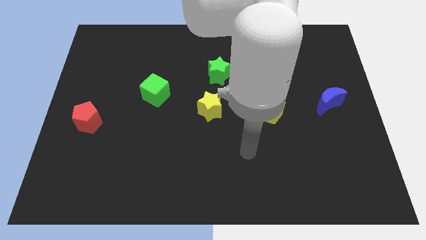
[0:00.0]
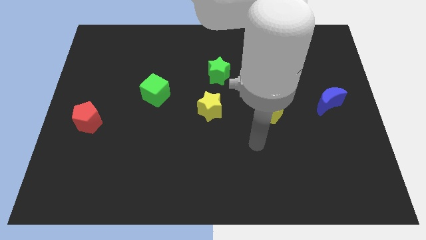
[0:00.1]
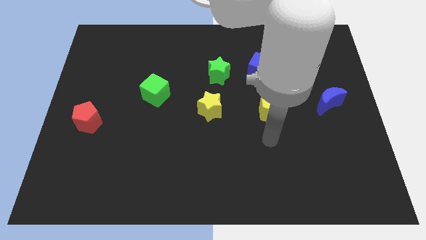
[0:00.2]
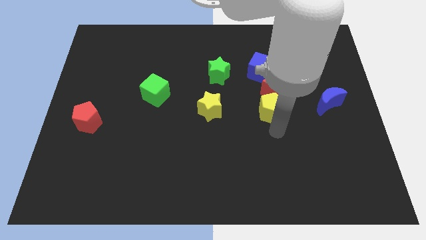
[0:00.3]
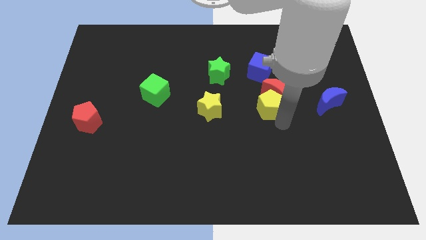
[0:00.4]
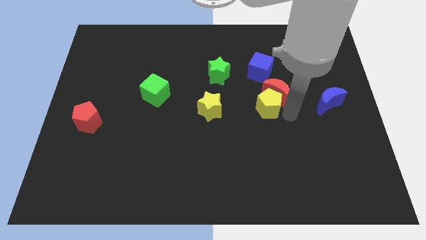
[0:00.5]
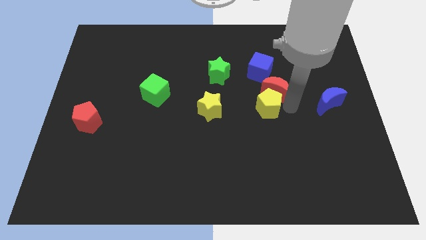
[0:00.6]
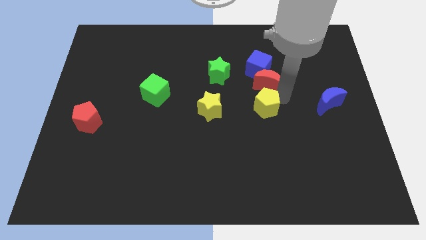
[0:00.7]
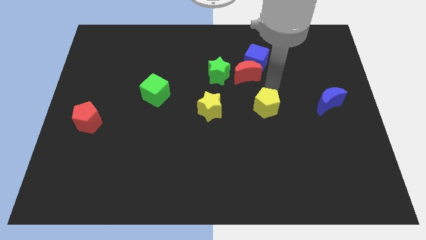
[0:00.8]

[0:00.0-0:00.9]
pull the yellow pentagon apart from the red moon

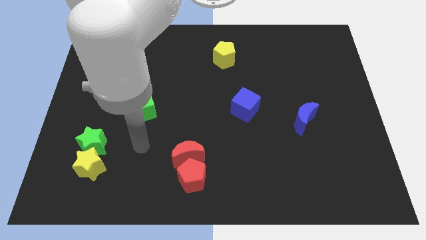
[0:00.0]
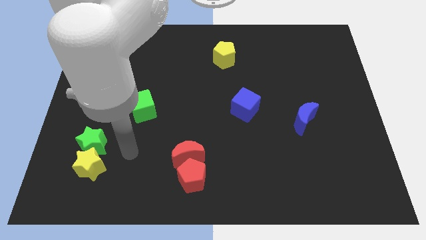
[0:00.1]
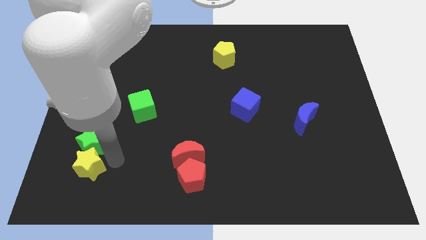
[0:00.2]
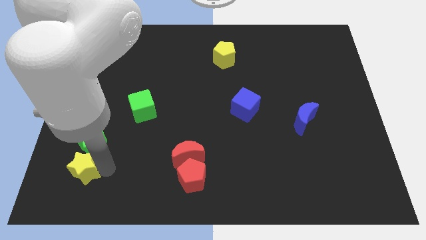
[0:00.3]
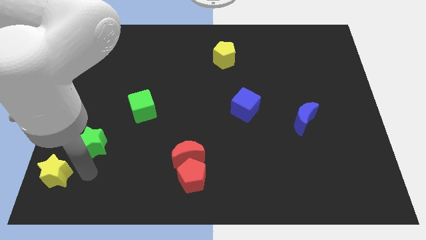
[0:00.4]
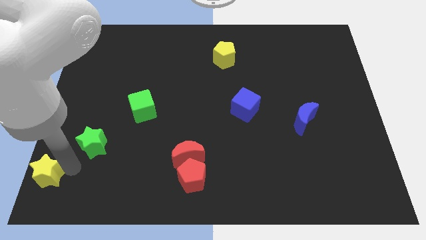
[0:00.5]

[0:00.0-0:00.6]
pull the green star apart from the yellow star

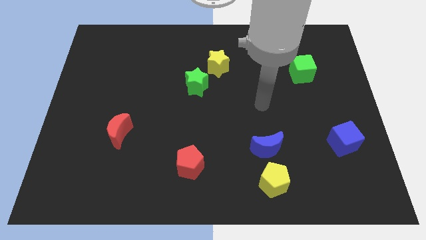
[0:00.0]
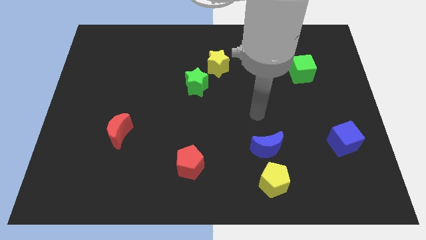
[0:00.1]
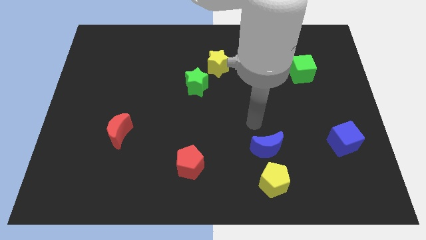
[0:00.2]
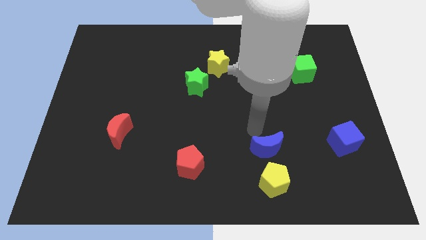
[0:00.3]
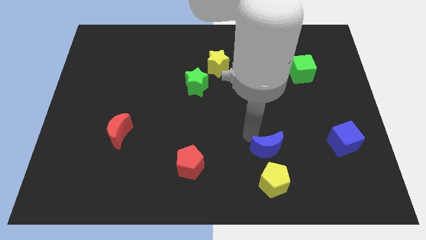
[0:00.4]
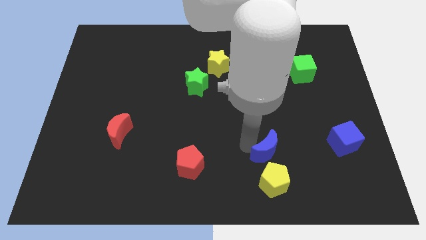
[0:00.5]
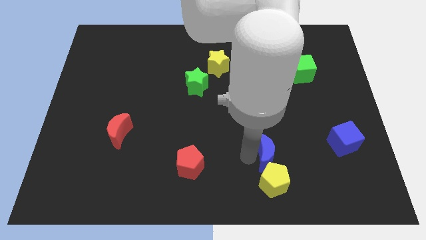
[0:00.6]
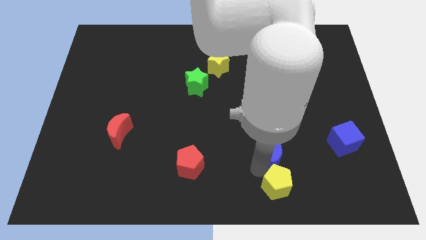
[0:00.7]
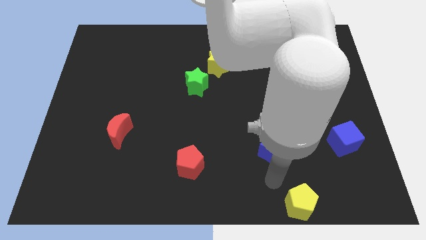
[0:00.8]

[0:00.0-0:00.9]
move the blue moon away from the yellow pentagon

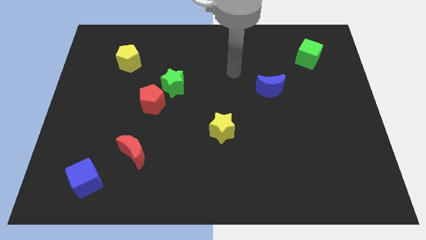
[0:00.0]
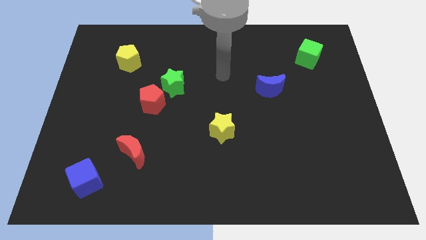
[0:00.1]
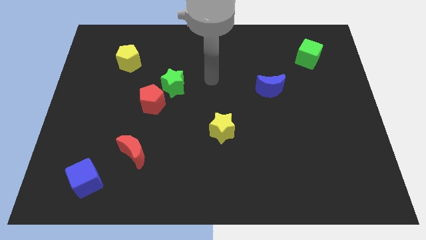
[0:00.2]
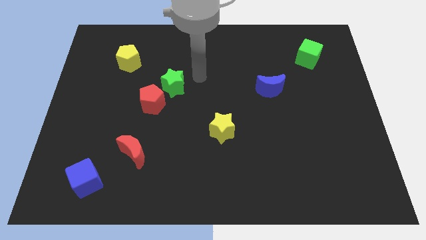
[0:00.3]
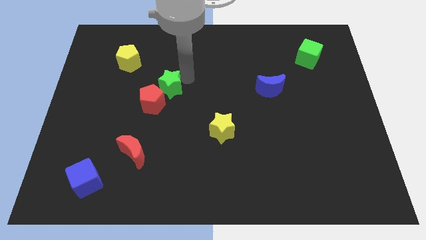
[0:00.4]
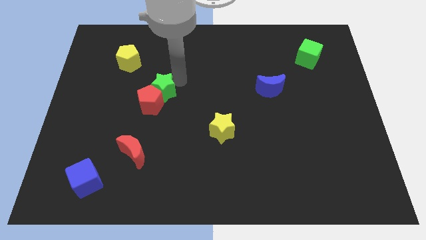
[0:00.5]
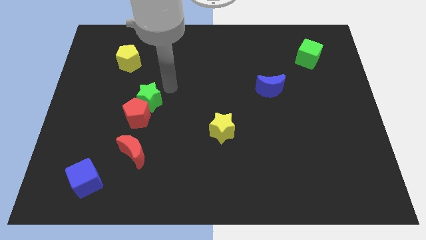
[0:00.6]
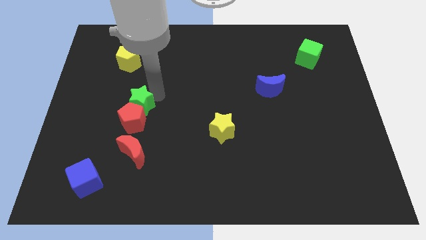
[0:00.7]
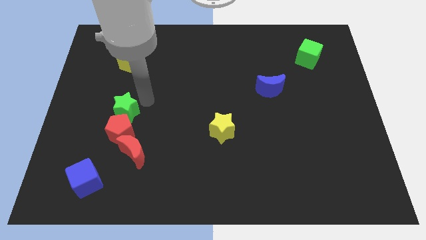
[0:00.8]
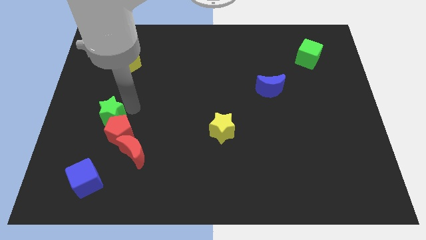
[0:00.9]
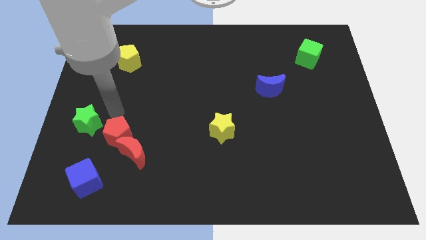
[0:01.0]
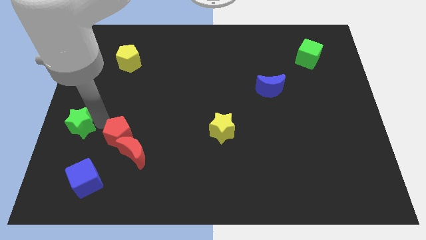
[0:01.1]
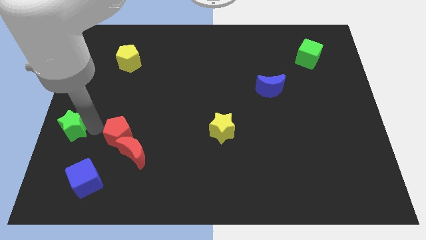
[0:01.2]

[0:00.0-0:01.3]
move the red pentagon away from the green star

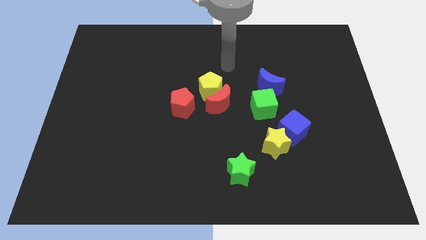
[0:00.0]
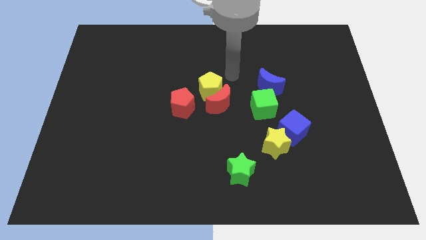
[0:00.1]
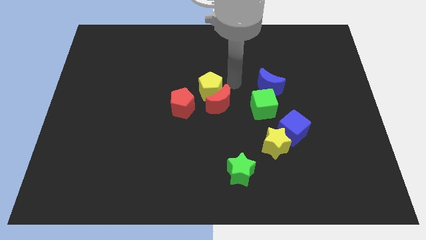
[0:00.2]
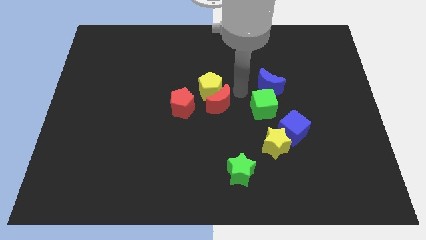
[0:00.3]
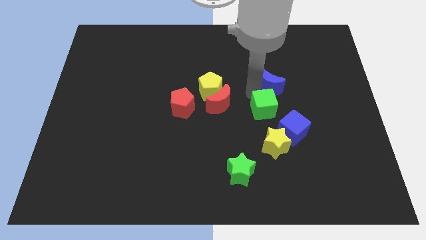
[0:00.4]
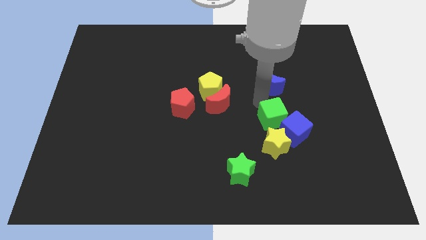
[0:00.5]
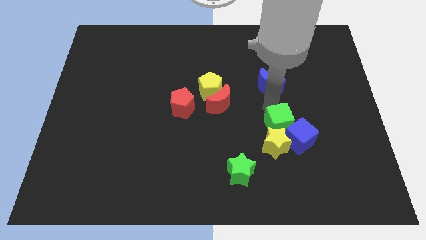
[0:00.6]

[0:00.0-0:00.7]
pull the blue moon apart from the green cube

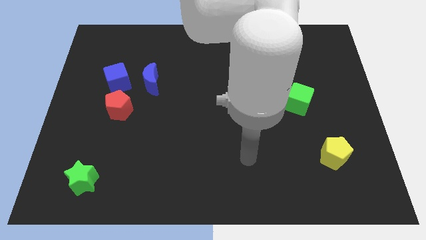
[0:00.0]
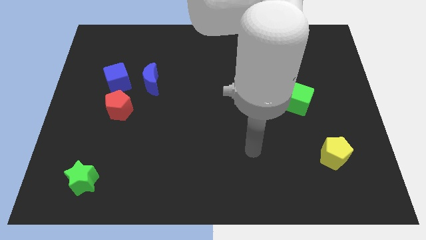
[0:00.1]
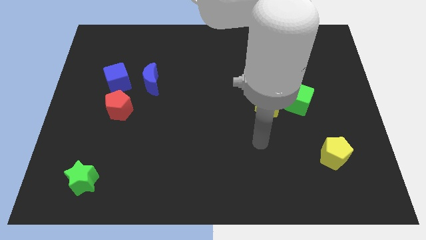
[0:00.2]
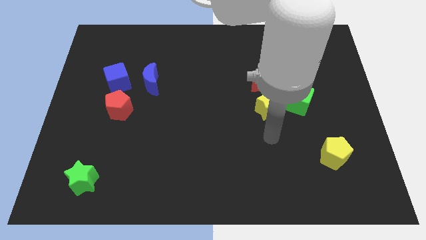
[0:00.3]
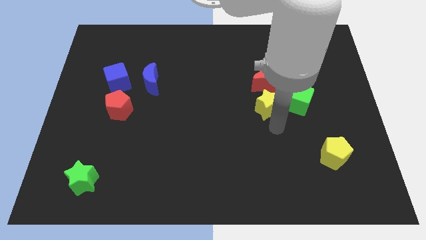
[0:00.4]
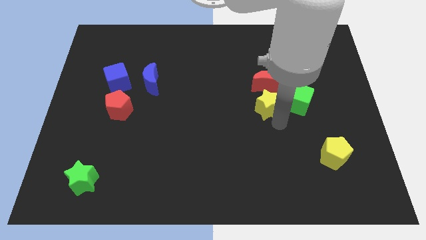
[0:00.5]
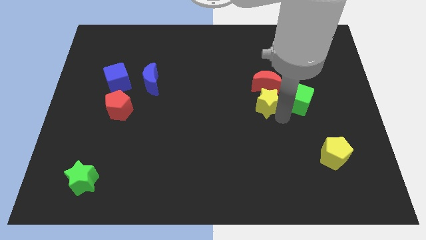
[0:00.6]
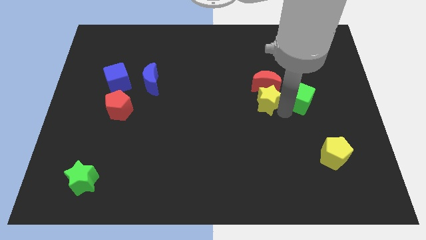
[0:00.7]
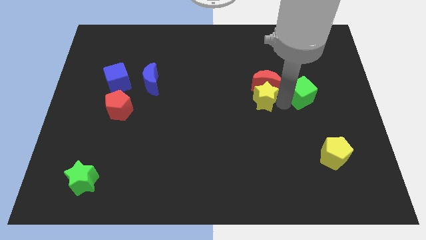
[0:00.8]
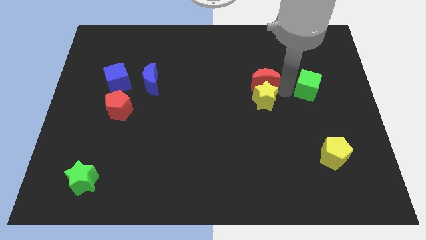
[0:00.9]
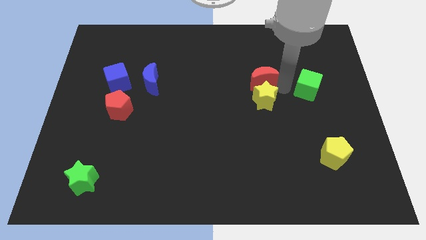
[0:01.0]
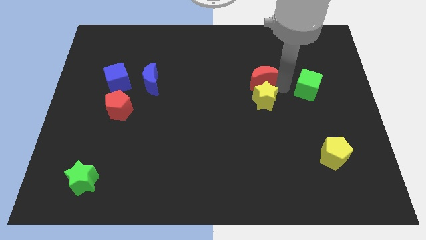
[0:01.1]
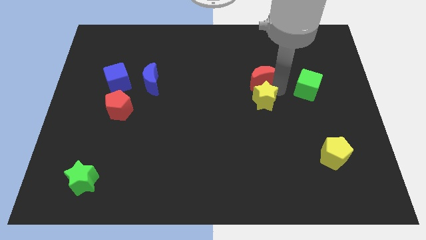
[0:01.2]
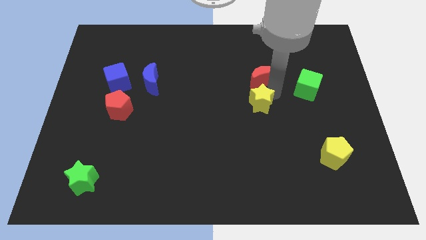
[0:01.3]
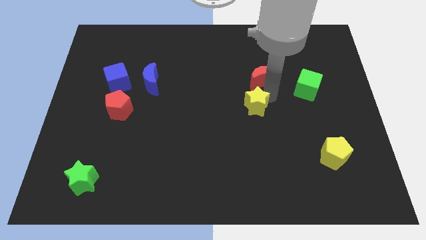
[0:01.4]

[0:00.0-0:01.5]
separate the yellow star from the red moon and green cube

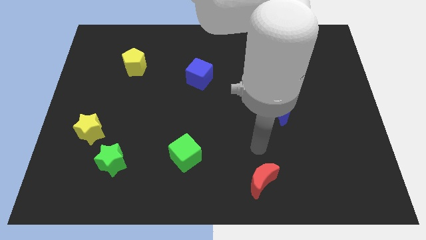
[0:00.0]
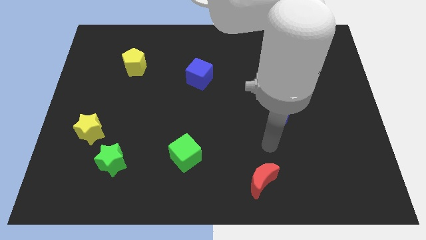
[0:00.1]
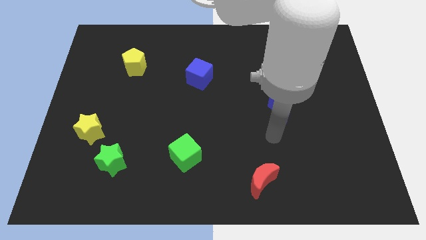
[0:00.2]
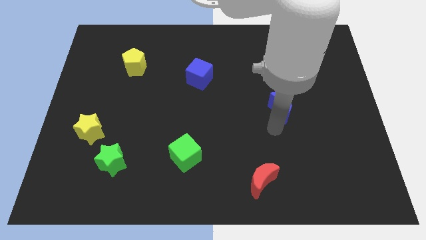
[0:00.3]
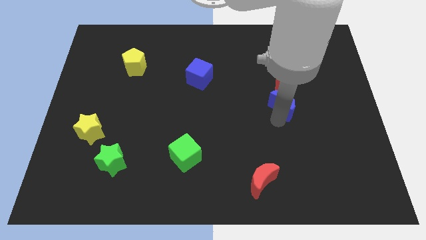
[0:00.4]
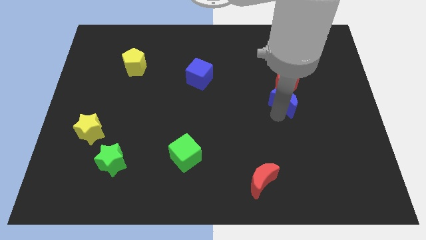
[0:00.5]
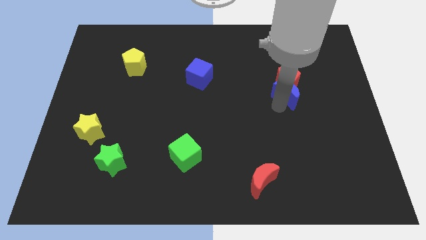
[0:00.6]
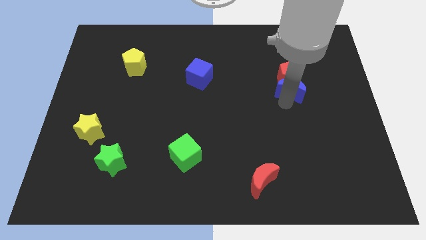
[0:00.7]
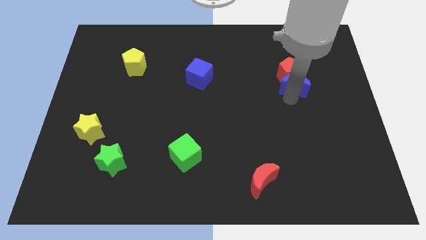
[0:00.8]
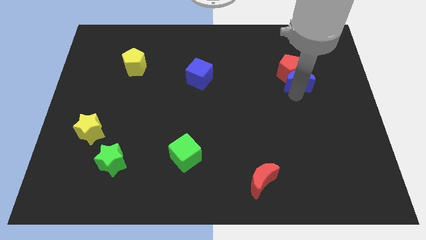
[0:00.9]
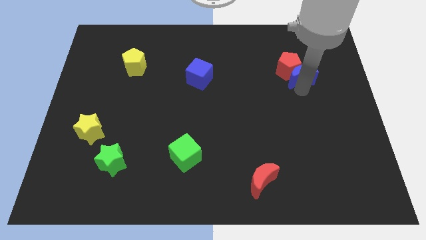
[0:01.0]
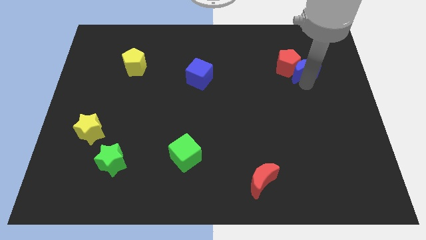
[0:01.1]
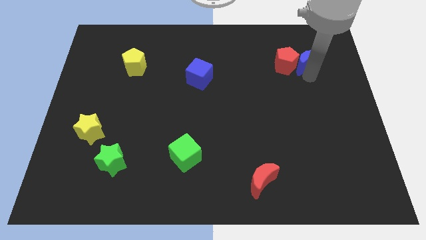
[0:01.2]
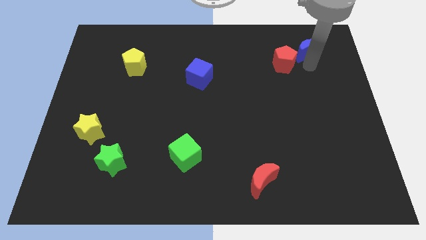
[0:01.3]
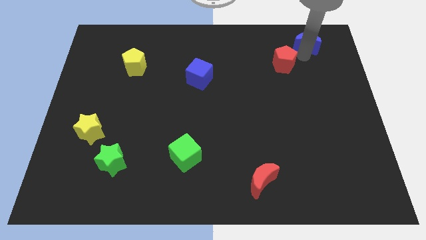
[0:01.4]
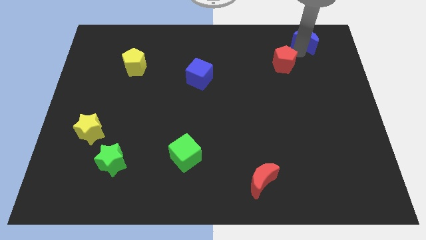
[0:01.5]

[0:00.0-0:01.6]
separate the red pentagon from the blue moon

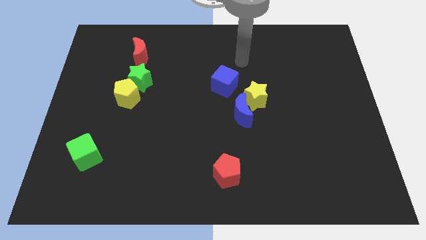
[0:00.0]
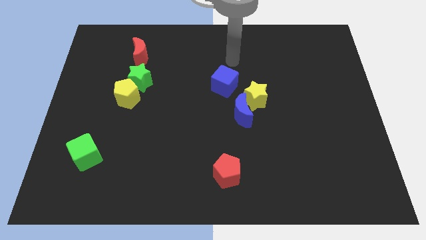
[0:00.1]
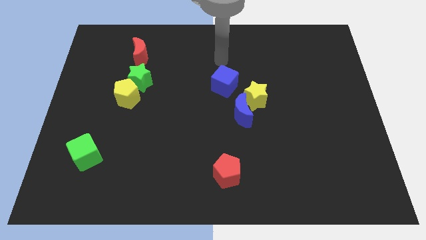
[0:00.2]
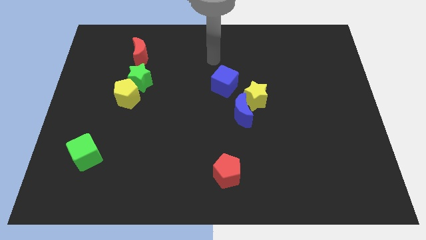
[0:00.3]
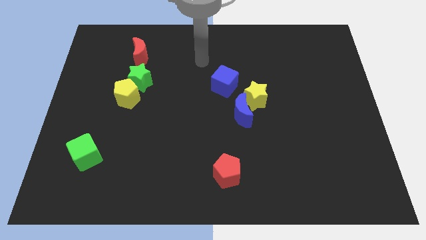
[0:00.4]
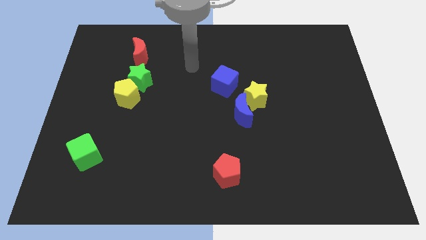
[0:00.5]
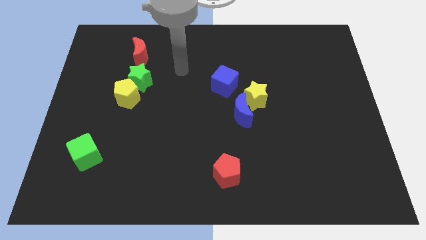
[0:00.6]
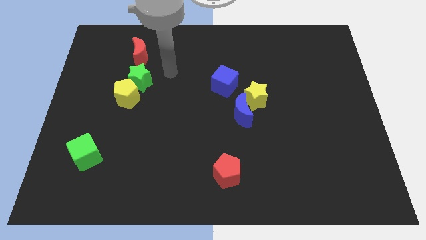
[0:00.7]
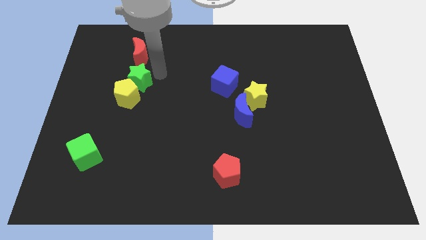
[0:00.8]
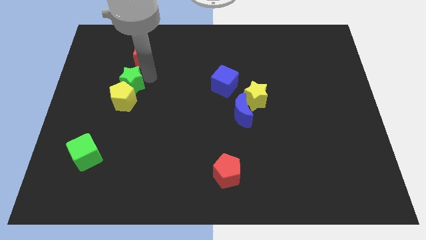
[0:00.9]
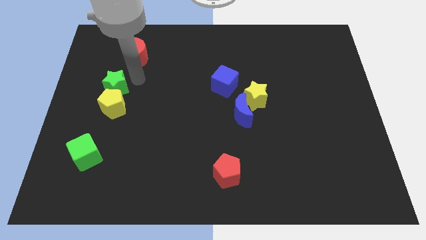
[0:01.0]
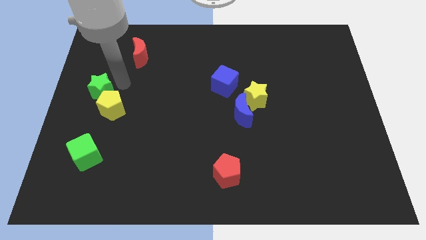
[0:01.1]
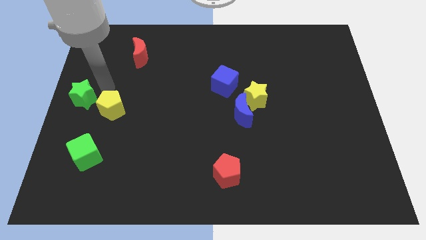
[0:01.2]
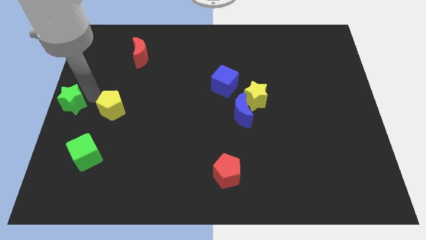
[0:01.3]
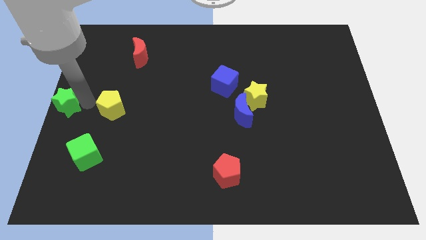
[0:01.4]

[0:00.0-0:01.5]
move the yellow pentagon away from the green star

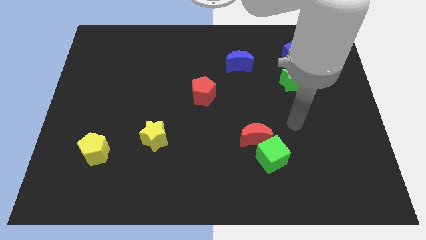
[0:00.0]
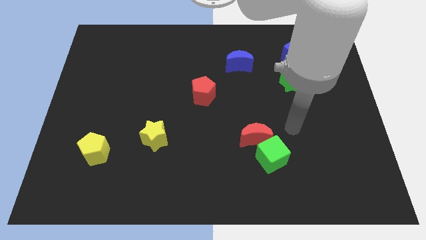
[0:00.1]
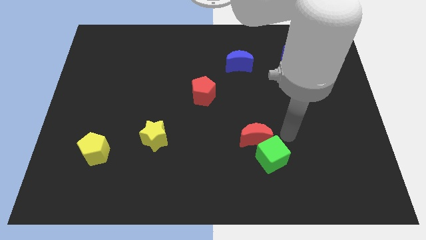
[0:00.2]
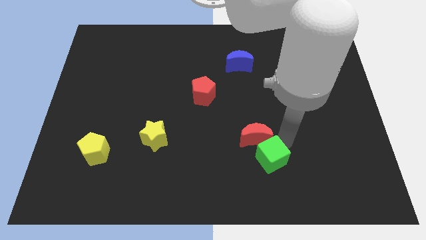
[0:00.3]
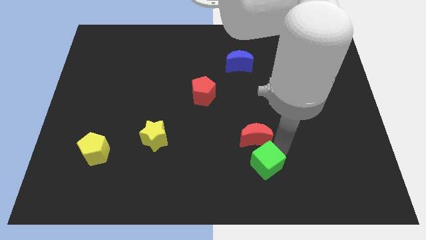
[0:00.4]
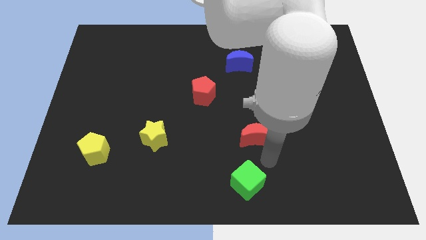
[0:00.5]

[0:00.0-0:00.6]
move the red moon away from the green cube
